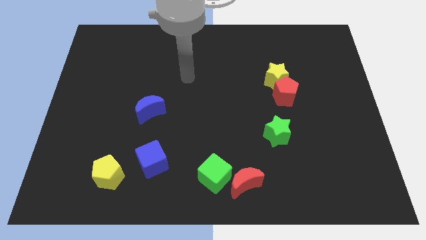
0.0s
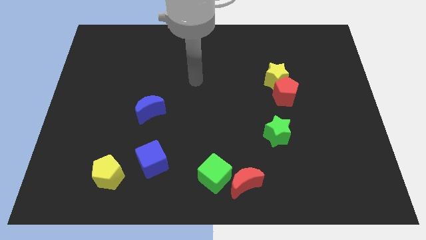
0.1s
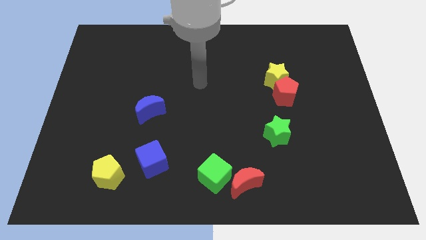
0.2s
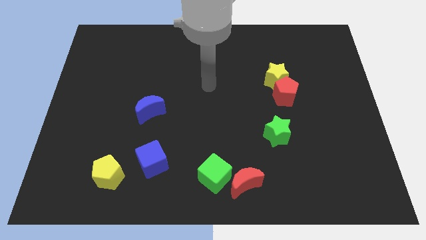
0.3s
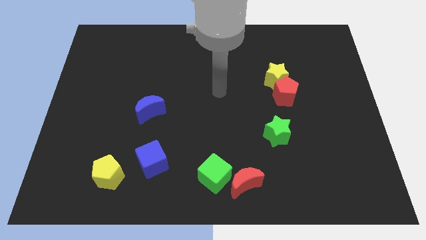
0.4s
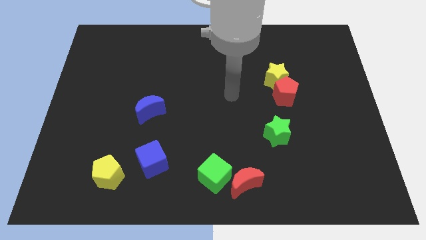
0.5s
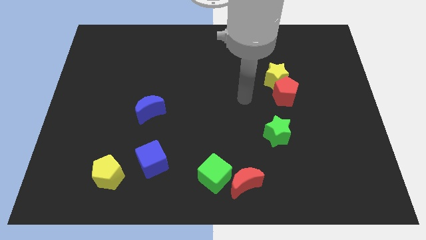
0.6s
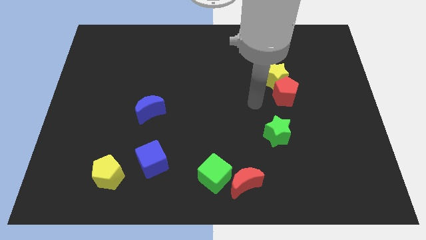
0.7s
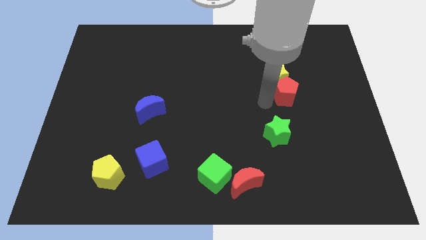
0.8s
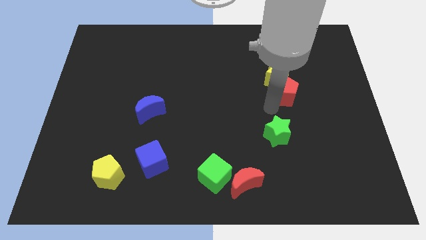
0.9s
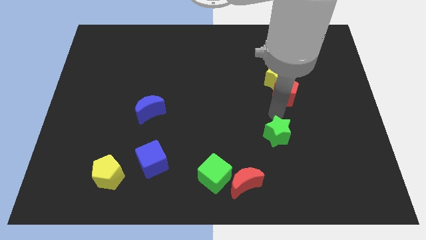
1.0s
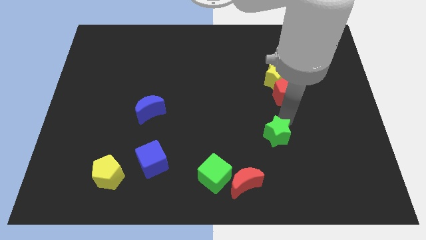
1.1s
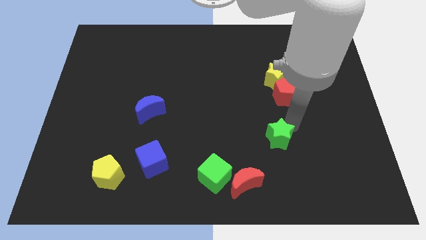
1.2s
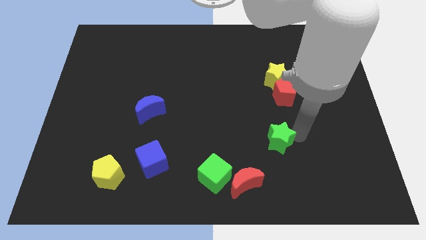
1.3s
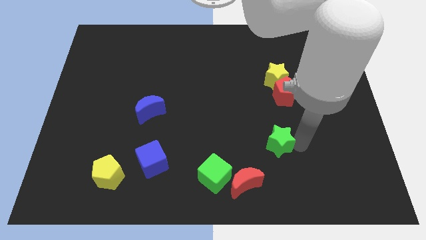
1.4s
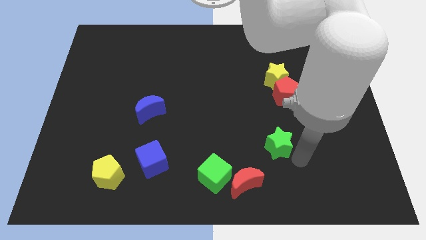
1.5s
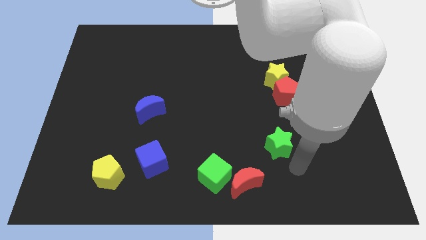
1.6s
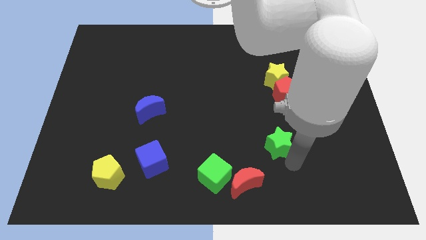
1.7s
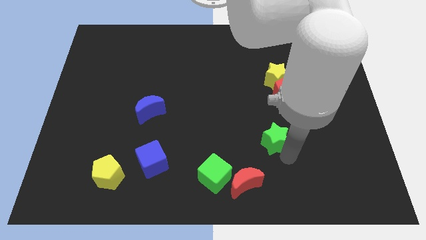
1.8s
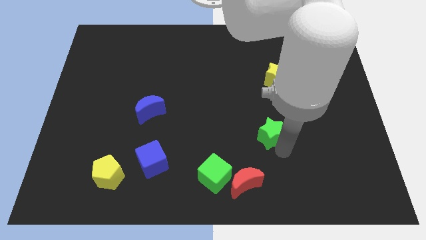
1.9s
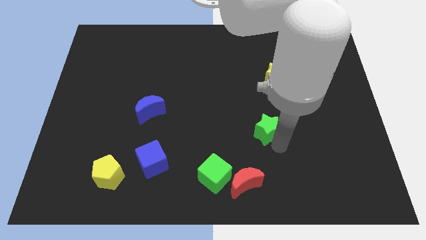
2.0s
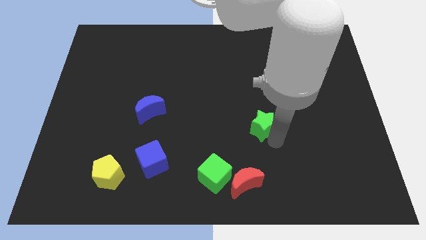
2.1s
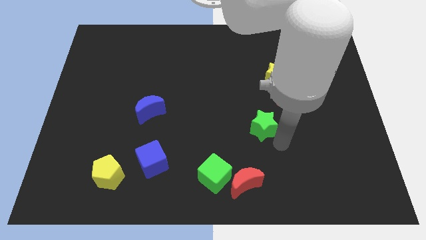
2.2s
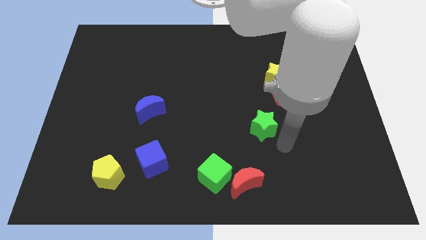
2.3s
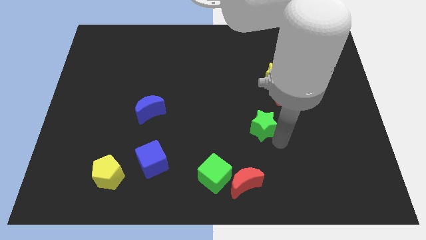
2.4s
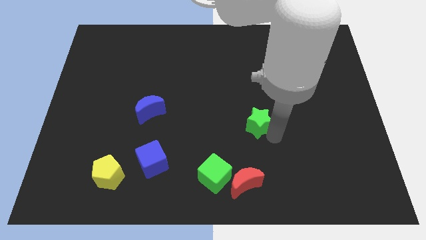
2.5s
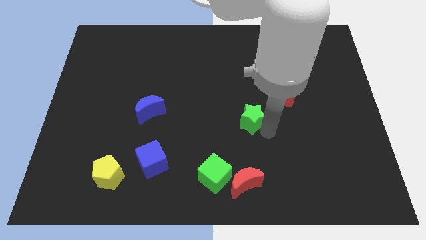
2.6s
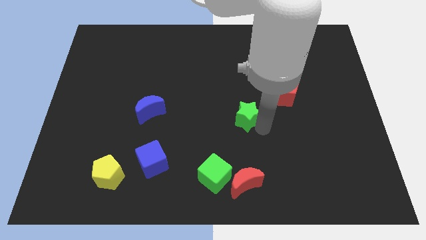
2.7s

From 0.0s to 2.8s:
push the green star diagonally upwards and left somewhat

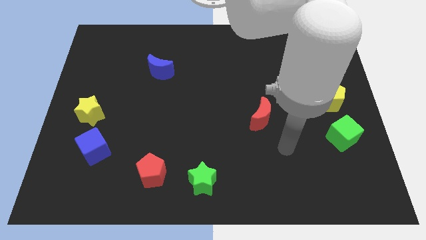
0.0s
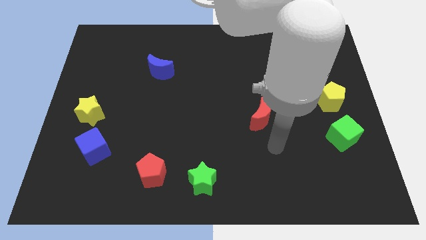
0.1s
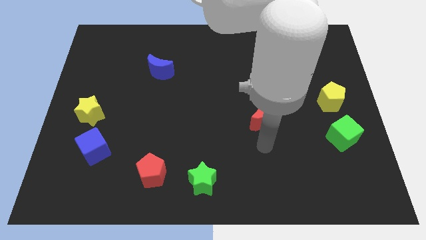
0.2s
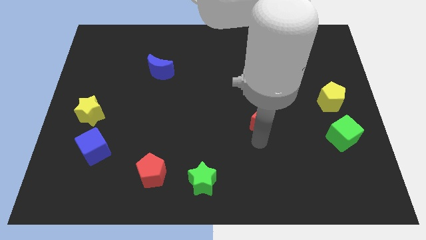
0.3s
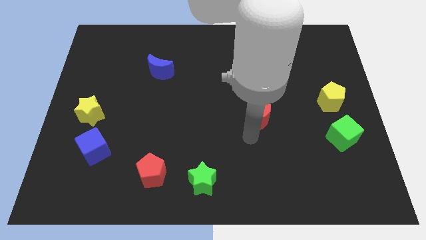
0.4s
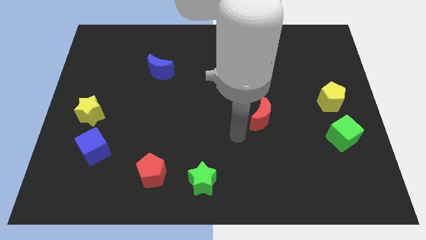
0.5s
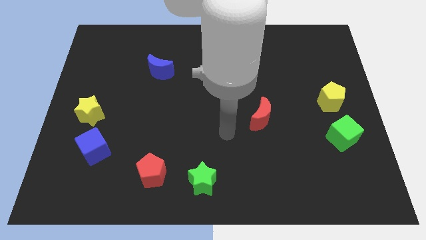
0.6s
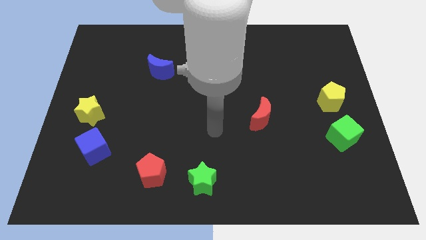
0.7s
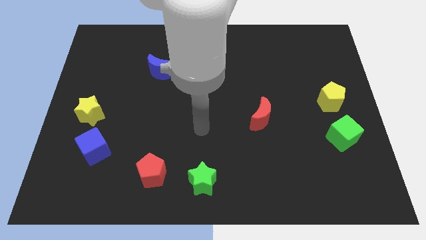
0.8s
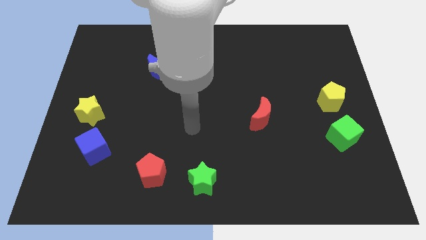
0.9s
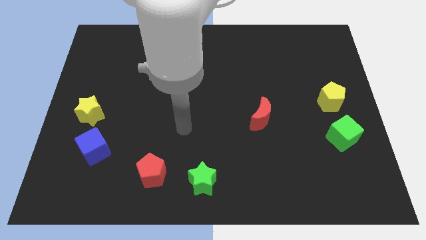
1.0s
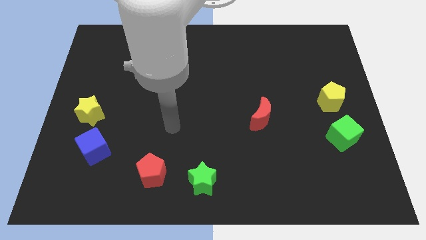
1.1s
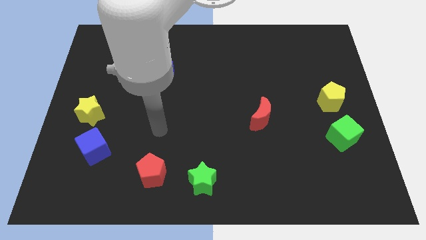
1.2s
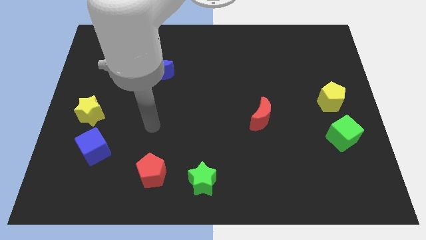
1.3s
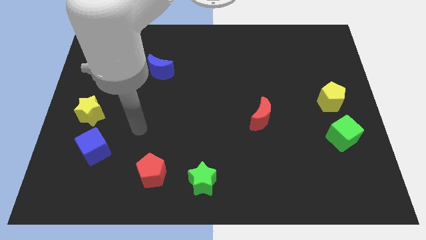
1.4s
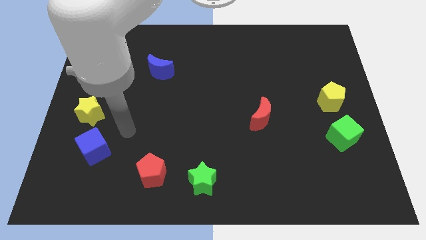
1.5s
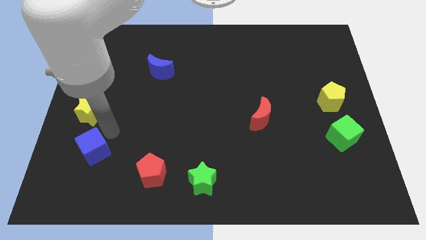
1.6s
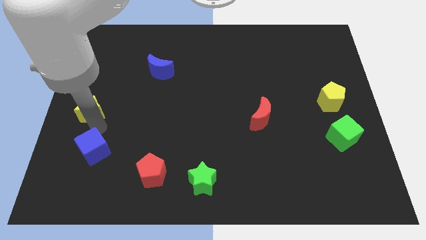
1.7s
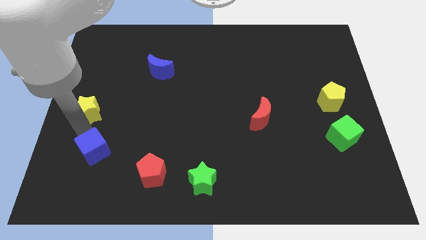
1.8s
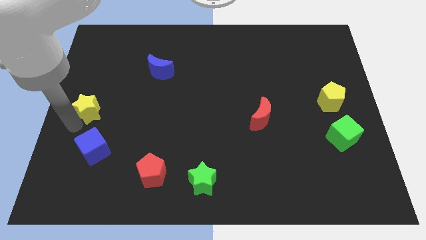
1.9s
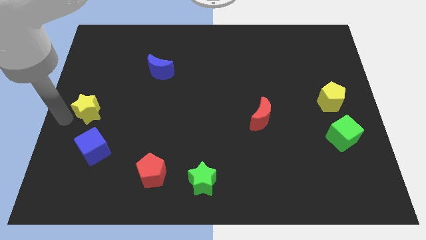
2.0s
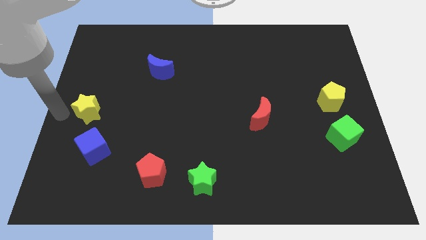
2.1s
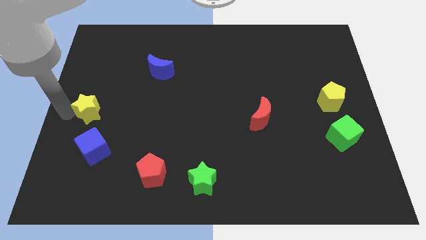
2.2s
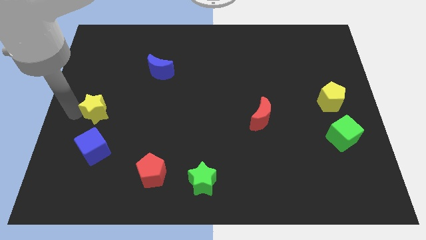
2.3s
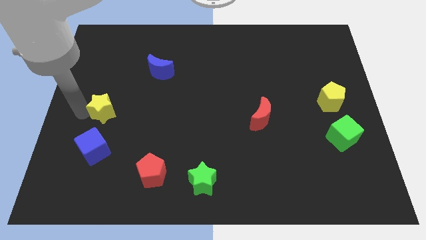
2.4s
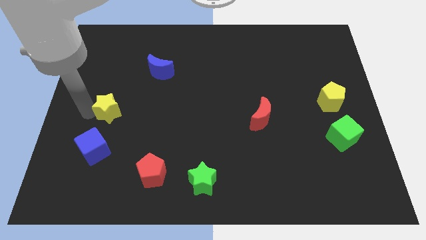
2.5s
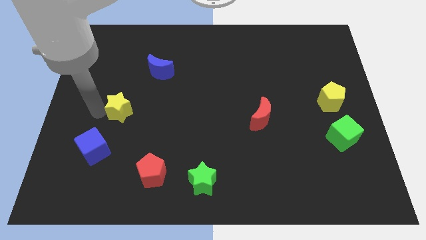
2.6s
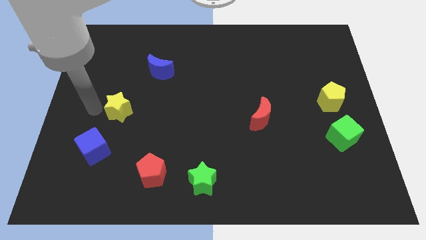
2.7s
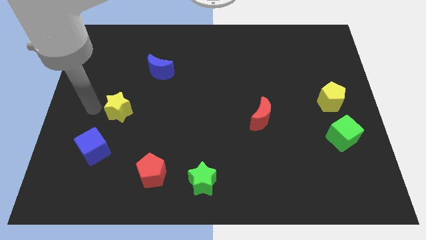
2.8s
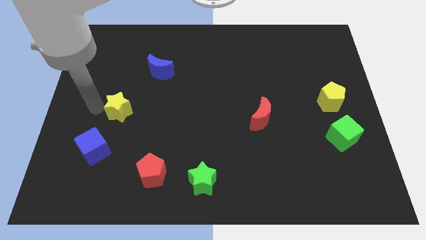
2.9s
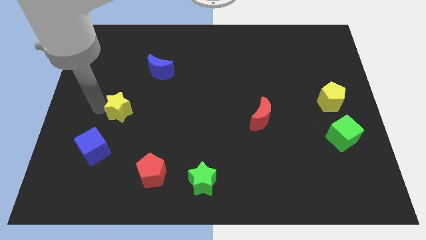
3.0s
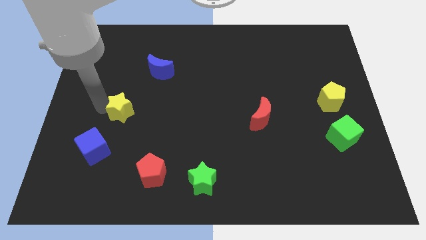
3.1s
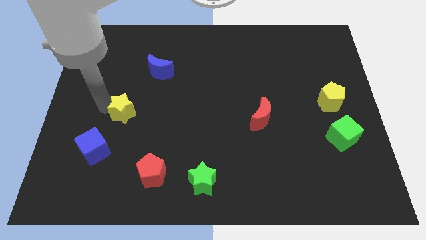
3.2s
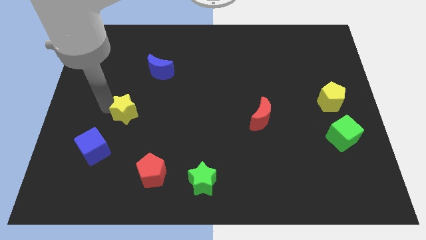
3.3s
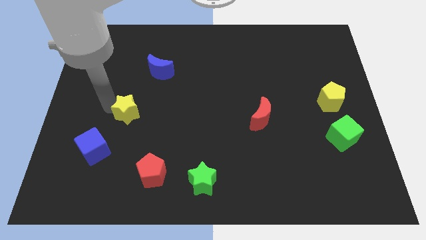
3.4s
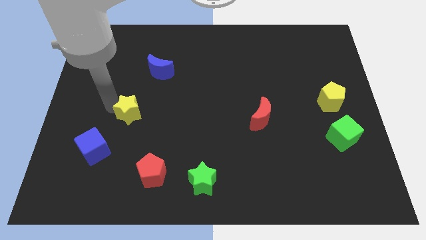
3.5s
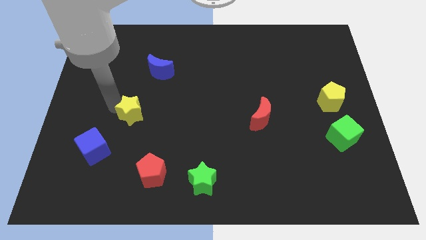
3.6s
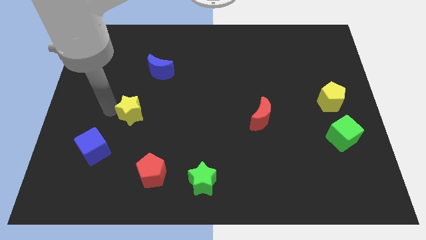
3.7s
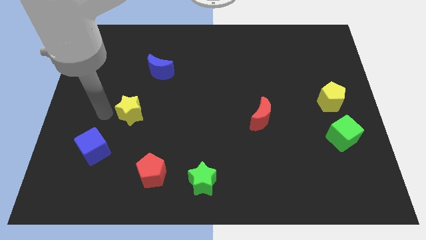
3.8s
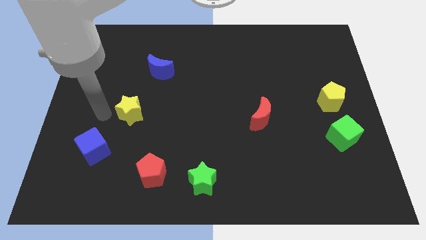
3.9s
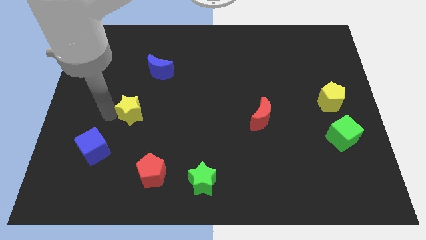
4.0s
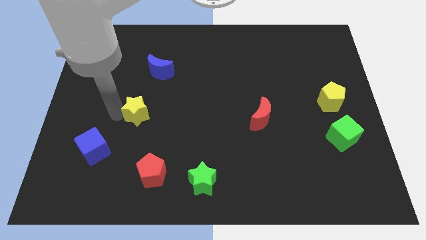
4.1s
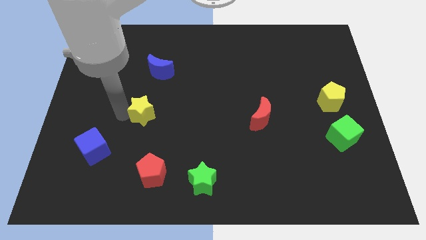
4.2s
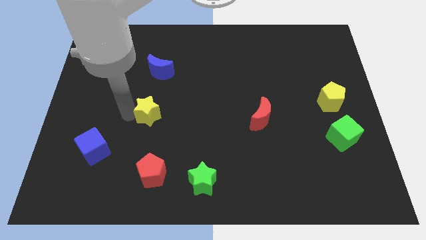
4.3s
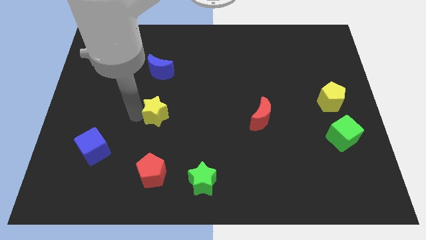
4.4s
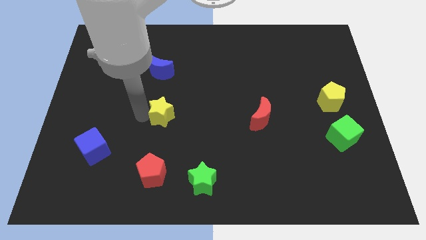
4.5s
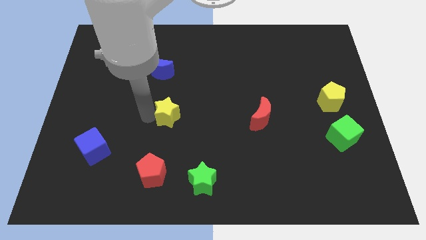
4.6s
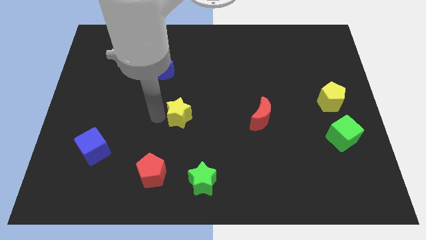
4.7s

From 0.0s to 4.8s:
push the yellow star to the right
